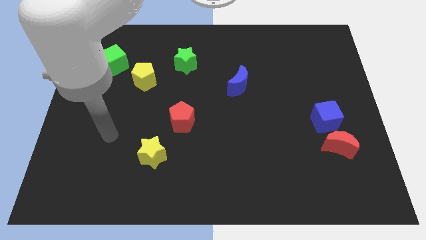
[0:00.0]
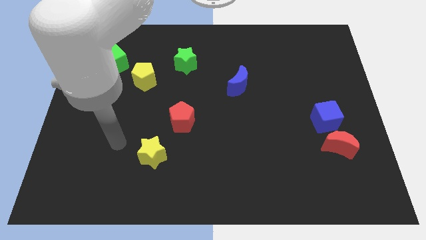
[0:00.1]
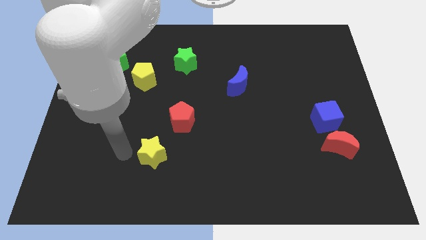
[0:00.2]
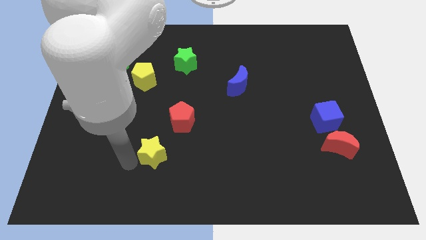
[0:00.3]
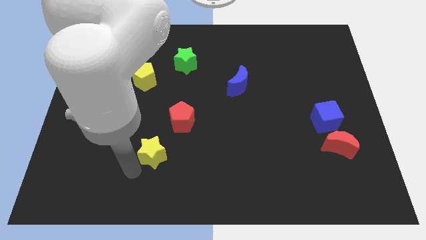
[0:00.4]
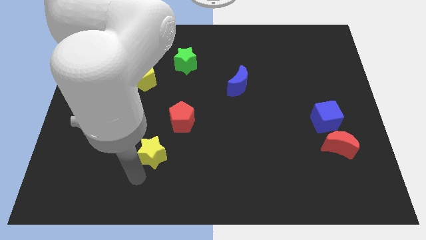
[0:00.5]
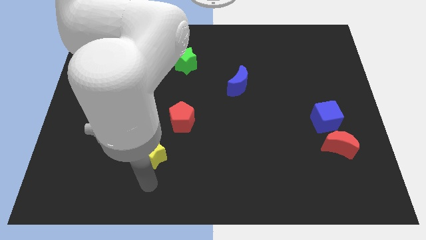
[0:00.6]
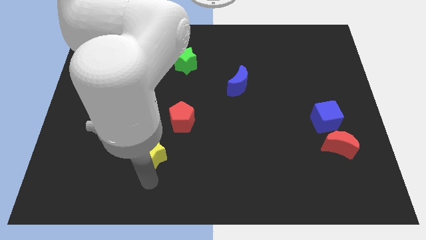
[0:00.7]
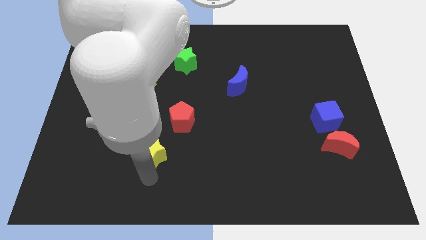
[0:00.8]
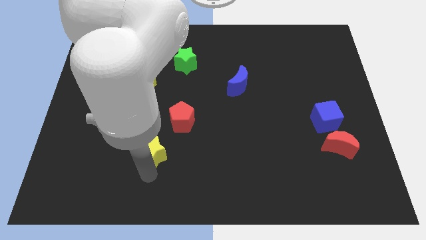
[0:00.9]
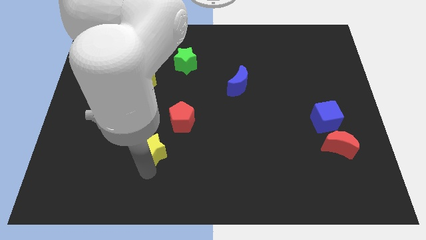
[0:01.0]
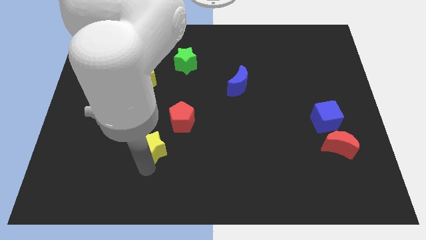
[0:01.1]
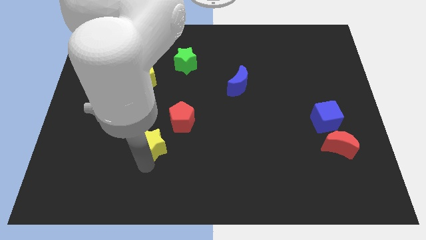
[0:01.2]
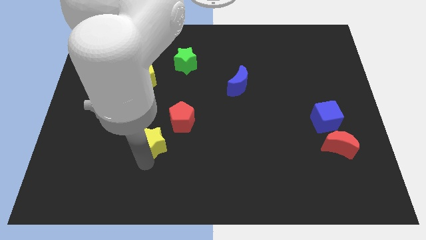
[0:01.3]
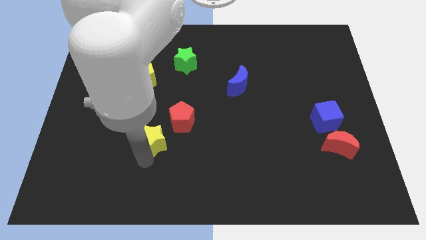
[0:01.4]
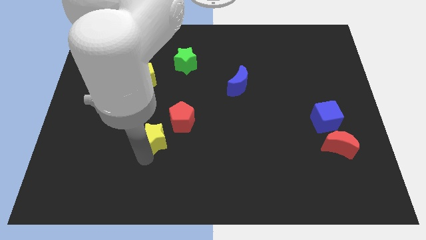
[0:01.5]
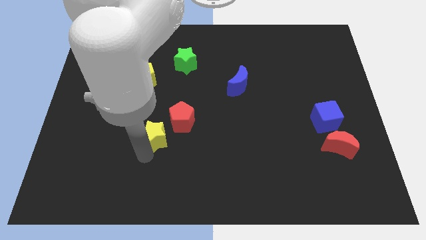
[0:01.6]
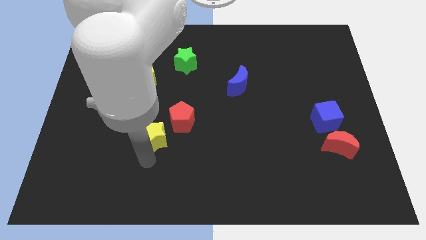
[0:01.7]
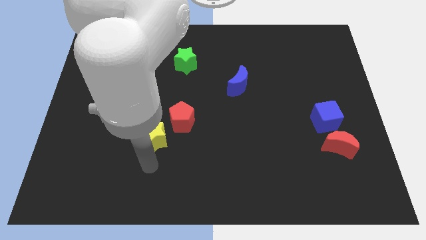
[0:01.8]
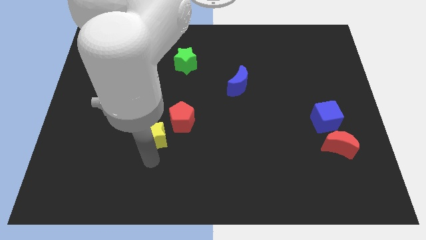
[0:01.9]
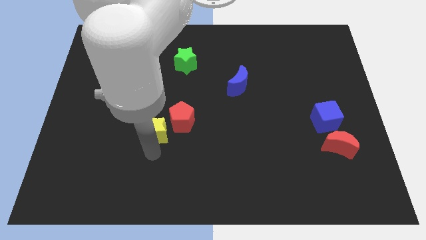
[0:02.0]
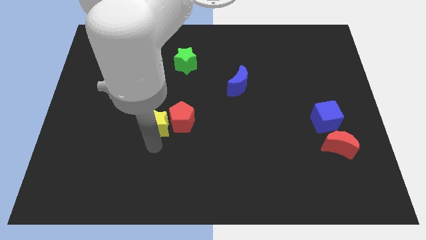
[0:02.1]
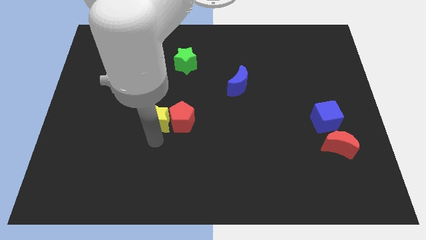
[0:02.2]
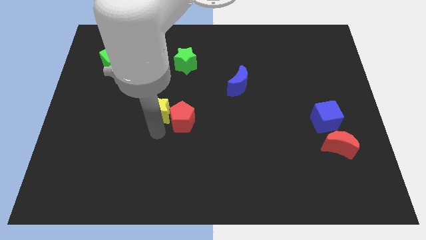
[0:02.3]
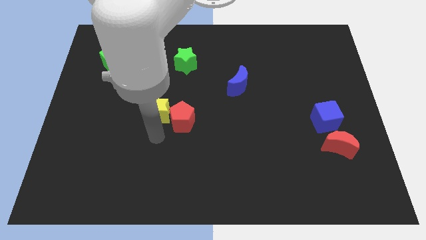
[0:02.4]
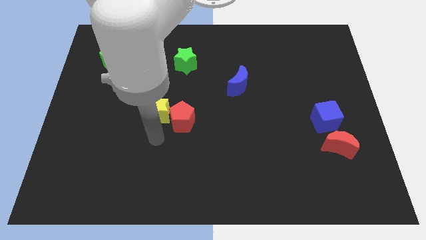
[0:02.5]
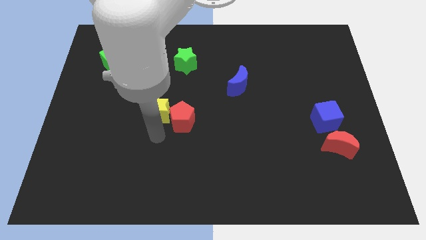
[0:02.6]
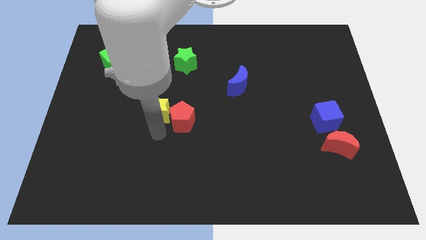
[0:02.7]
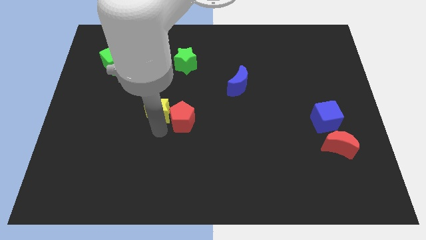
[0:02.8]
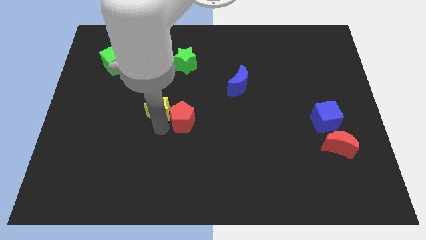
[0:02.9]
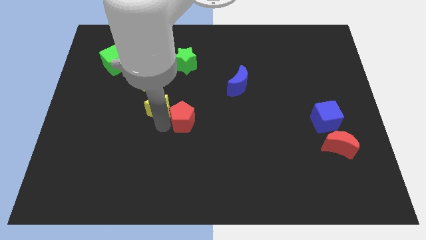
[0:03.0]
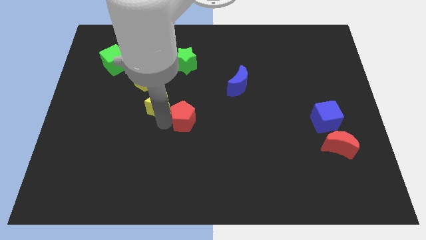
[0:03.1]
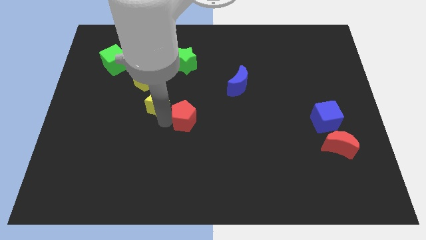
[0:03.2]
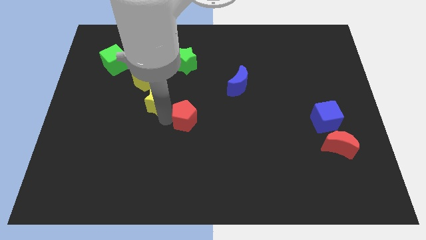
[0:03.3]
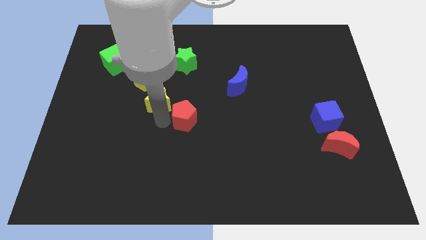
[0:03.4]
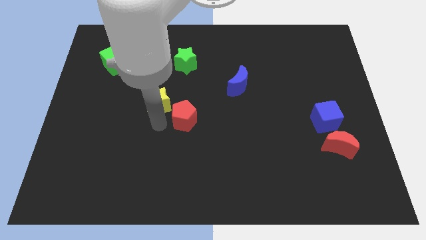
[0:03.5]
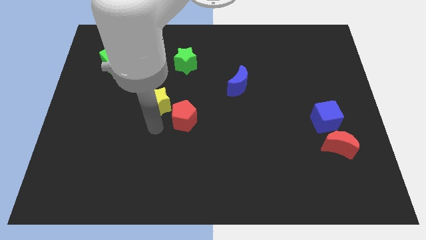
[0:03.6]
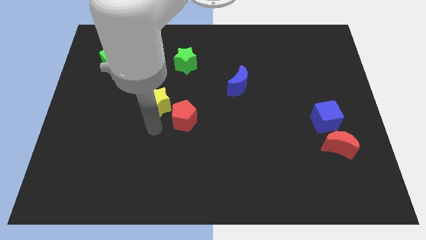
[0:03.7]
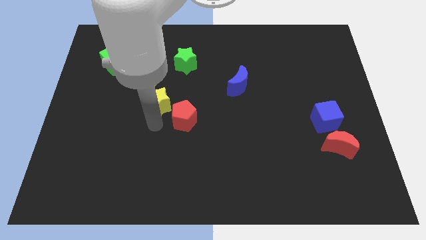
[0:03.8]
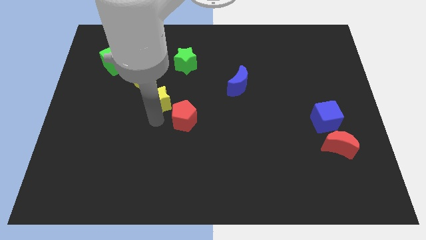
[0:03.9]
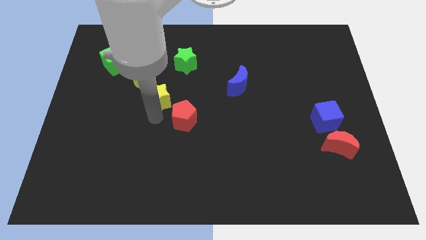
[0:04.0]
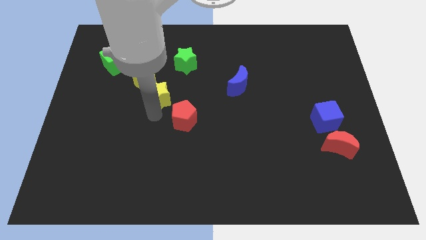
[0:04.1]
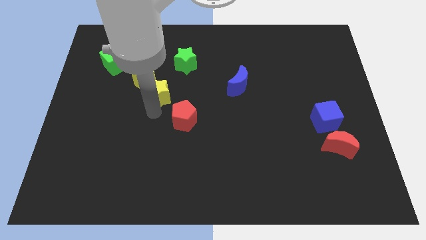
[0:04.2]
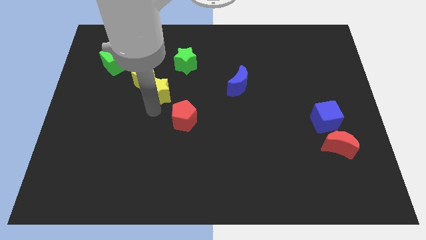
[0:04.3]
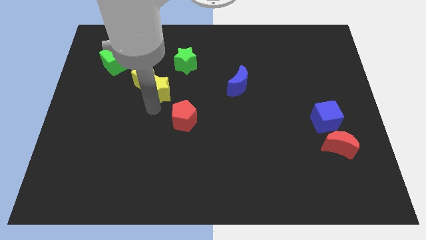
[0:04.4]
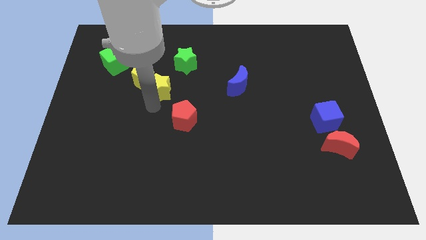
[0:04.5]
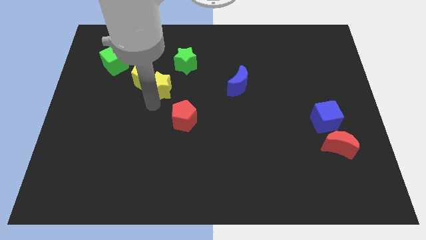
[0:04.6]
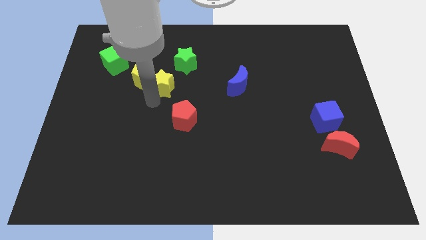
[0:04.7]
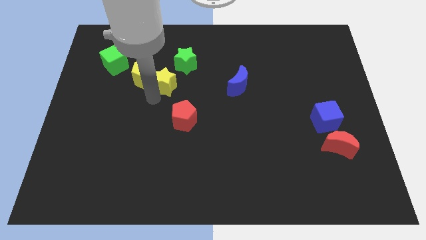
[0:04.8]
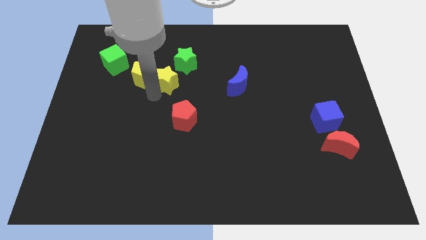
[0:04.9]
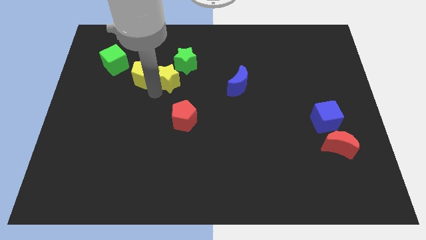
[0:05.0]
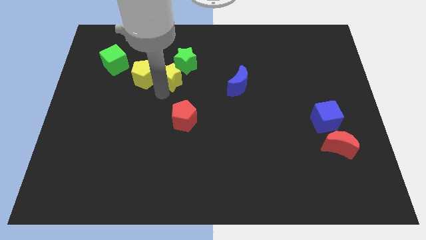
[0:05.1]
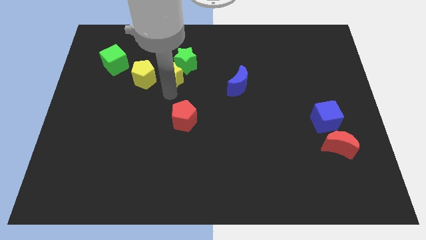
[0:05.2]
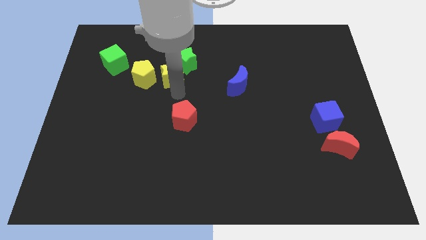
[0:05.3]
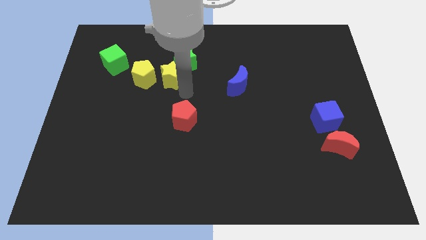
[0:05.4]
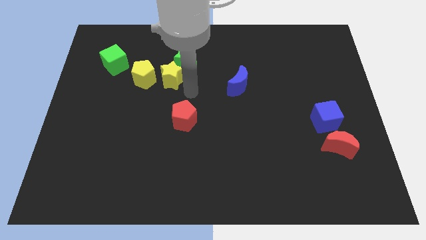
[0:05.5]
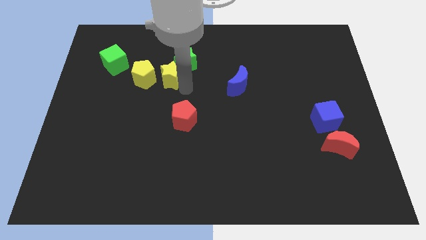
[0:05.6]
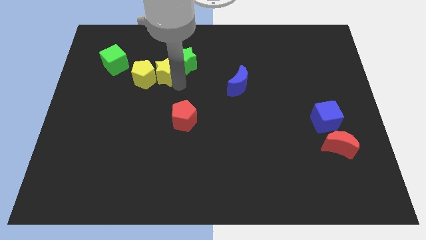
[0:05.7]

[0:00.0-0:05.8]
slide the yellow star left of the green star

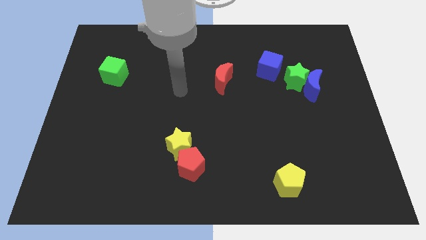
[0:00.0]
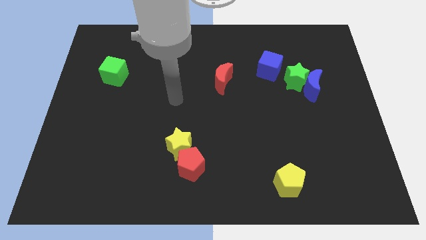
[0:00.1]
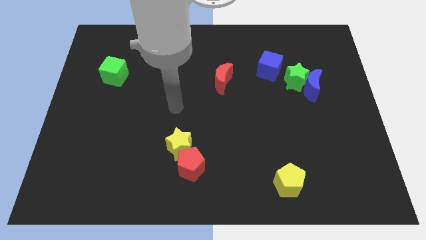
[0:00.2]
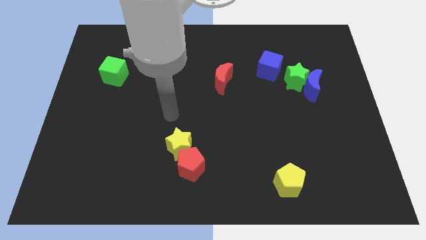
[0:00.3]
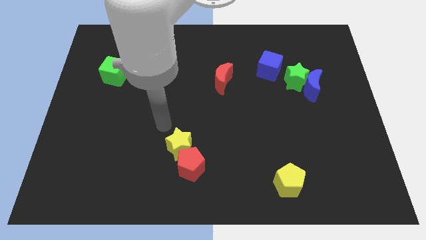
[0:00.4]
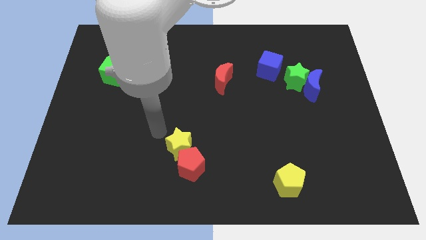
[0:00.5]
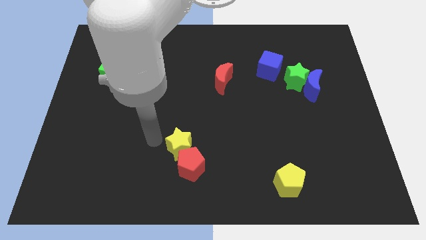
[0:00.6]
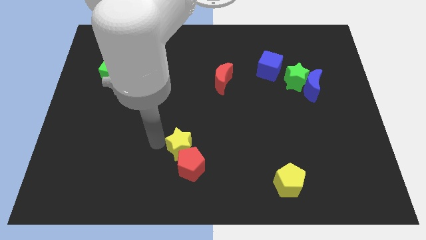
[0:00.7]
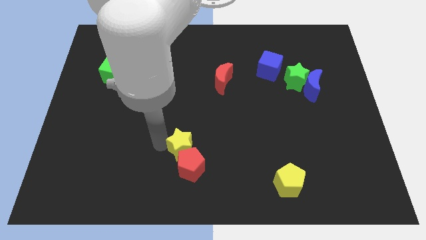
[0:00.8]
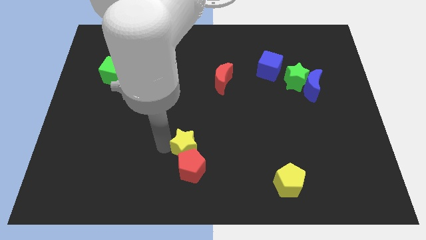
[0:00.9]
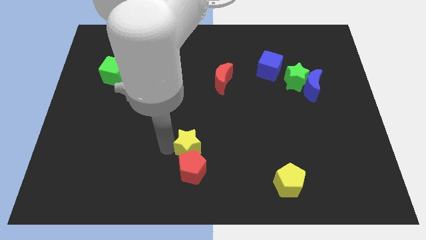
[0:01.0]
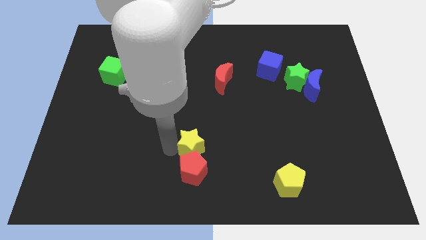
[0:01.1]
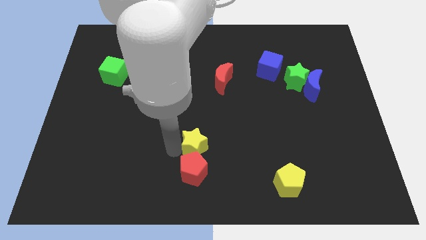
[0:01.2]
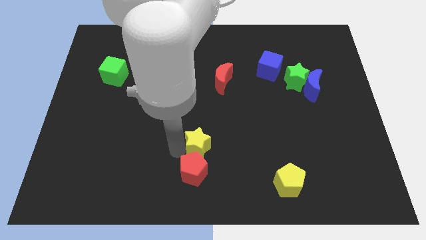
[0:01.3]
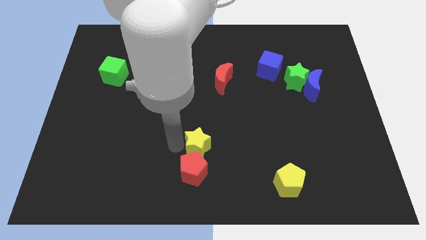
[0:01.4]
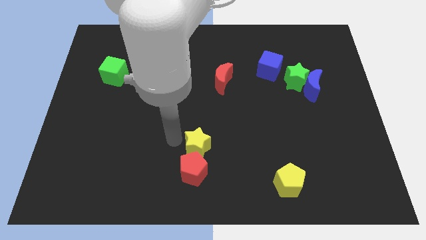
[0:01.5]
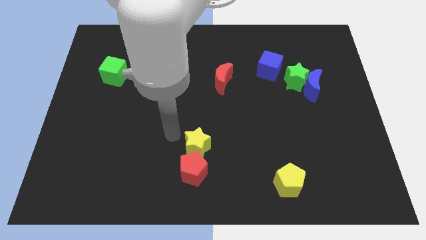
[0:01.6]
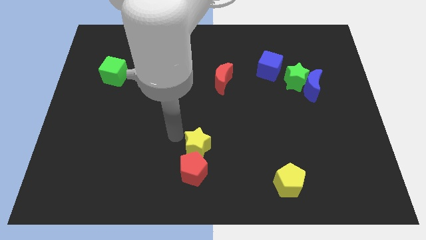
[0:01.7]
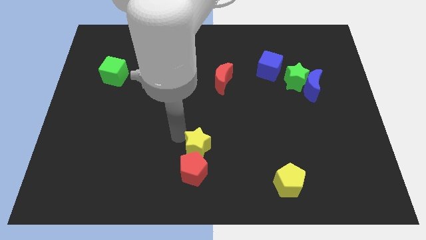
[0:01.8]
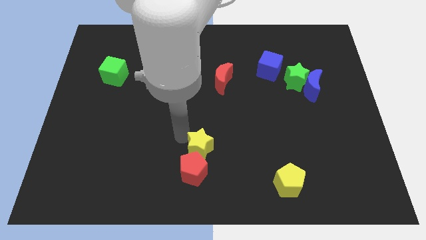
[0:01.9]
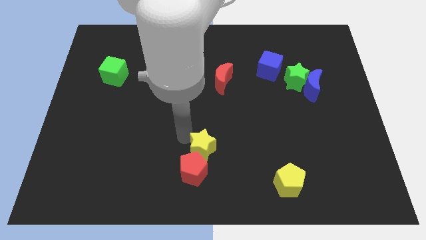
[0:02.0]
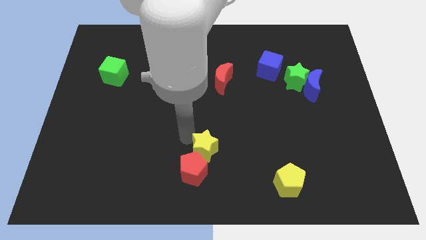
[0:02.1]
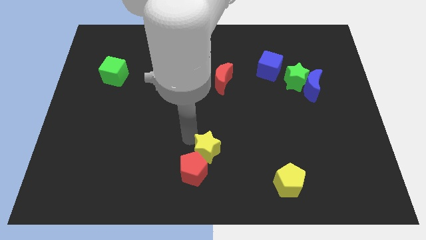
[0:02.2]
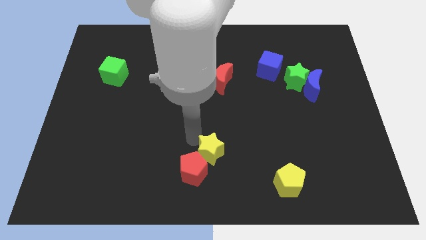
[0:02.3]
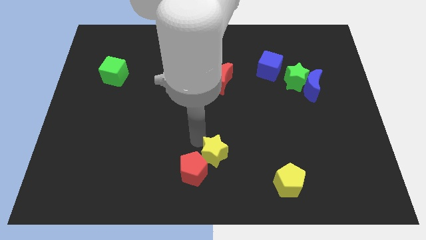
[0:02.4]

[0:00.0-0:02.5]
put the yellow star to the right side of the red pentagon
